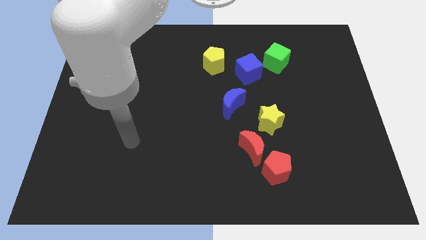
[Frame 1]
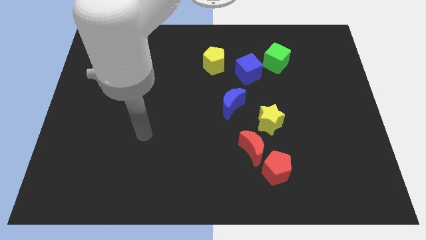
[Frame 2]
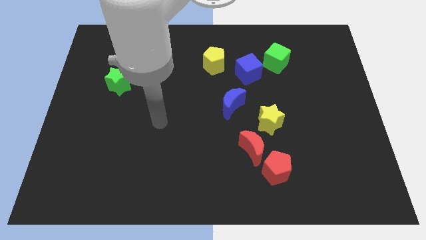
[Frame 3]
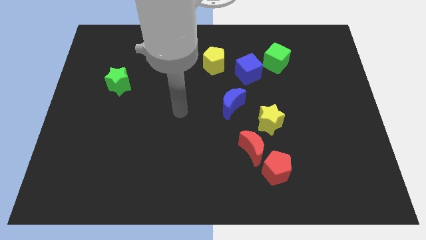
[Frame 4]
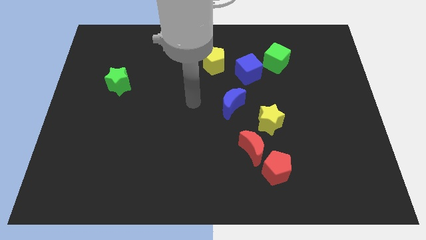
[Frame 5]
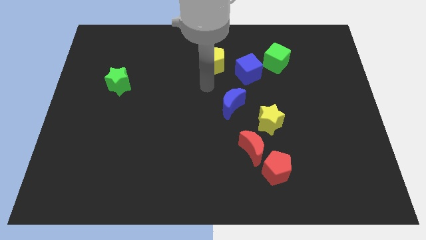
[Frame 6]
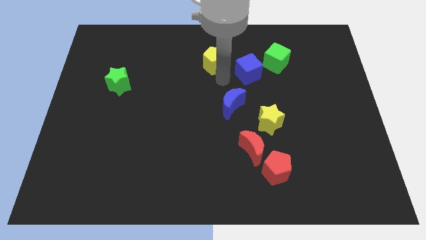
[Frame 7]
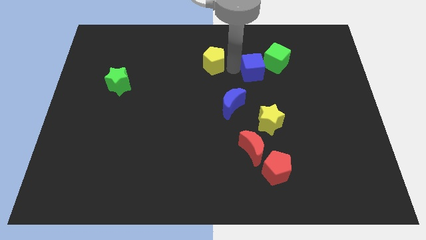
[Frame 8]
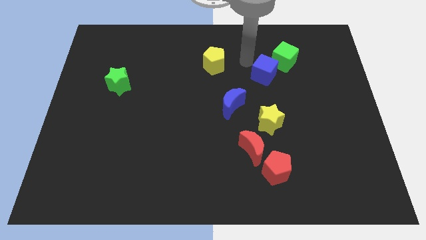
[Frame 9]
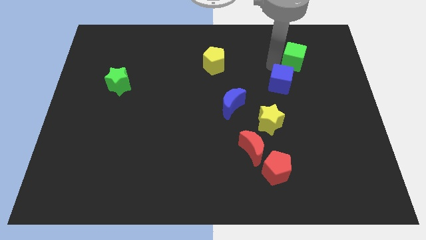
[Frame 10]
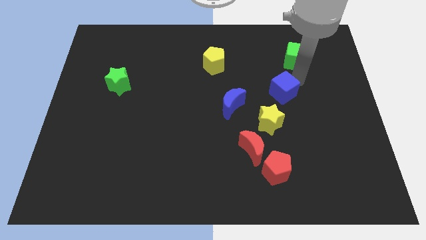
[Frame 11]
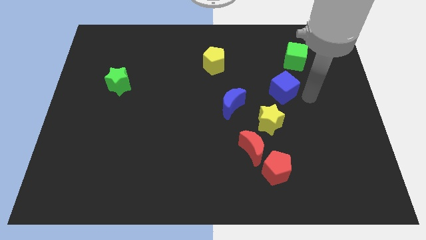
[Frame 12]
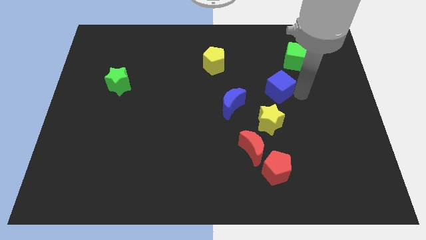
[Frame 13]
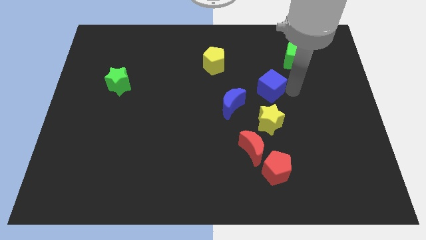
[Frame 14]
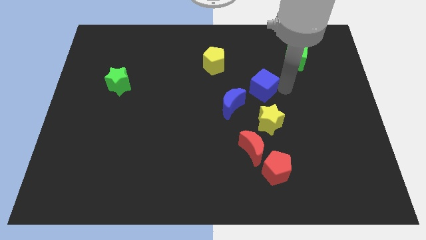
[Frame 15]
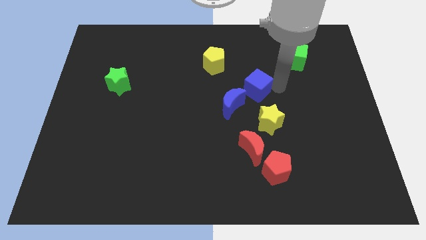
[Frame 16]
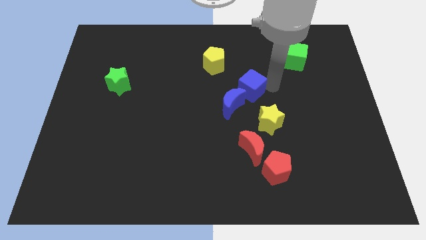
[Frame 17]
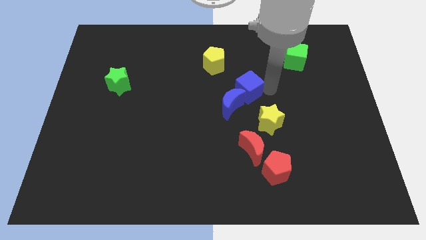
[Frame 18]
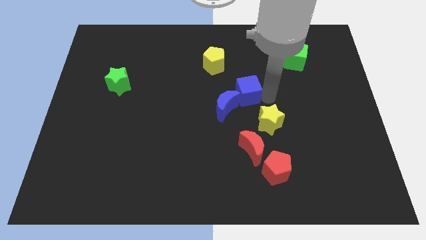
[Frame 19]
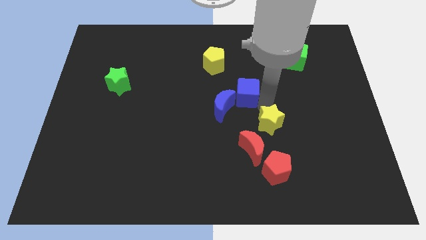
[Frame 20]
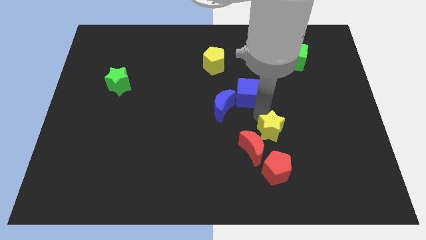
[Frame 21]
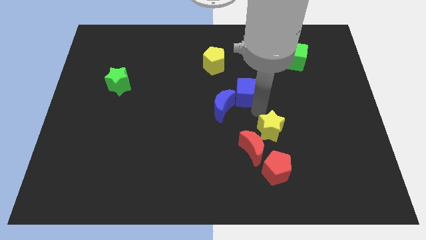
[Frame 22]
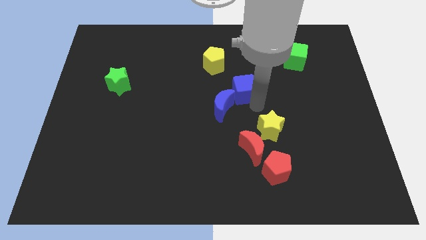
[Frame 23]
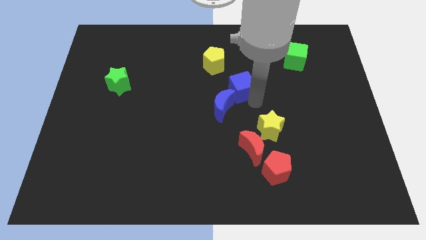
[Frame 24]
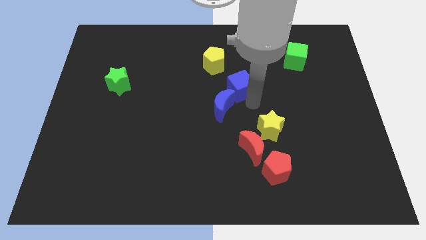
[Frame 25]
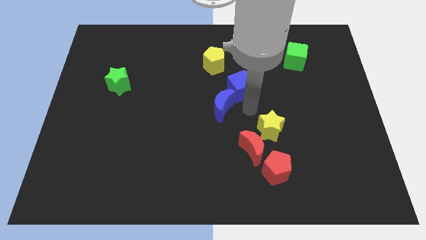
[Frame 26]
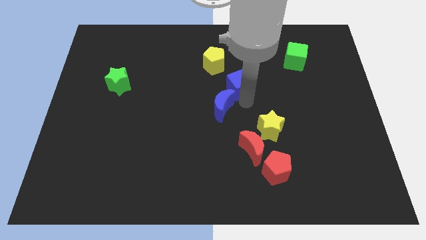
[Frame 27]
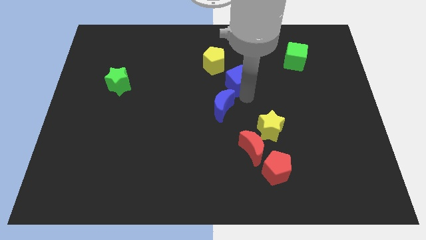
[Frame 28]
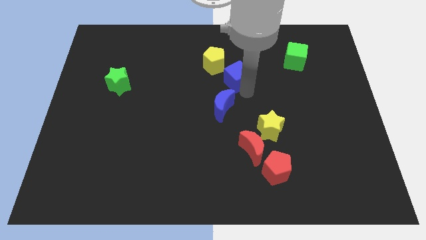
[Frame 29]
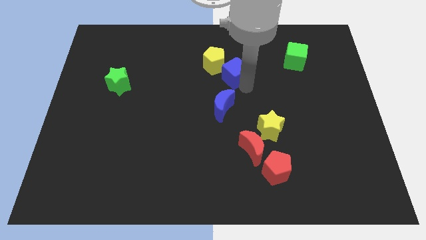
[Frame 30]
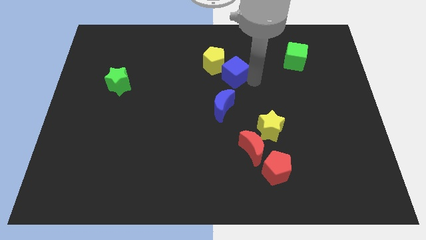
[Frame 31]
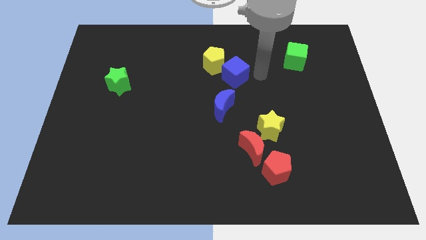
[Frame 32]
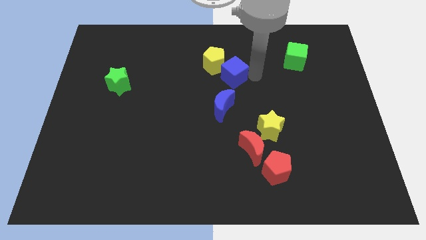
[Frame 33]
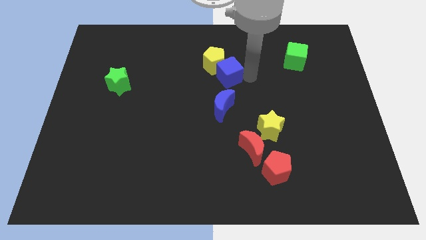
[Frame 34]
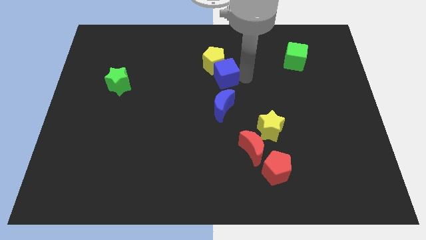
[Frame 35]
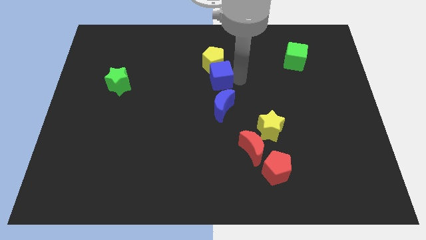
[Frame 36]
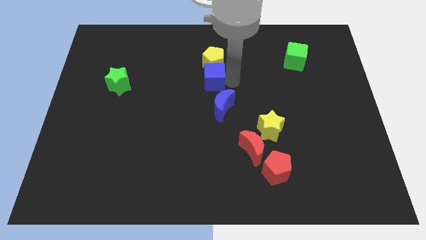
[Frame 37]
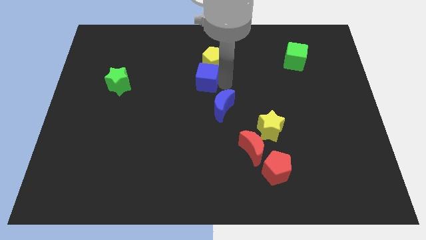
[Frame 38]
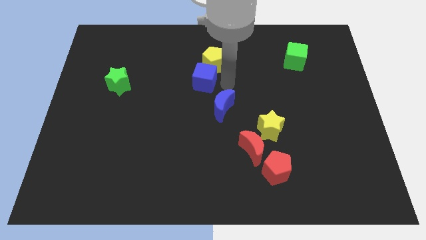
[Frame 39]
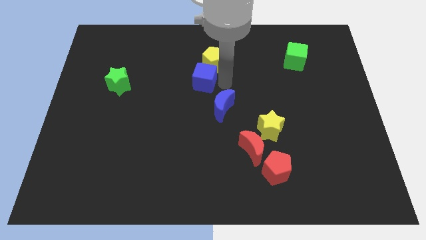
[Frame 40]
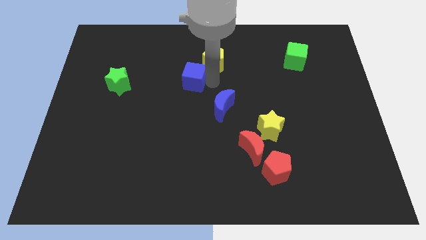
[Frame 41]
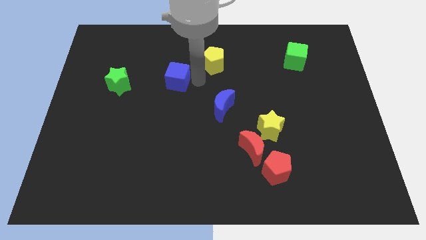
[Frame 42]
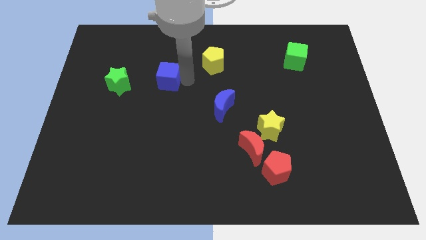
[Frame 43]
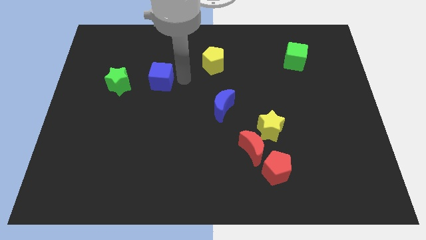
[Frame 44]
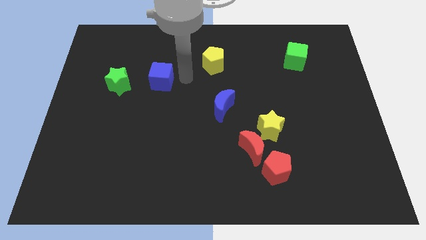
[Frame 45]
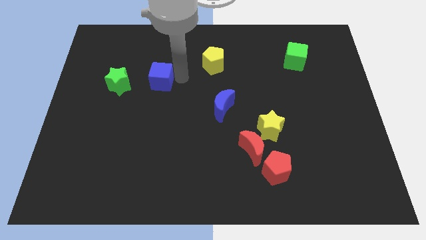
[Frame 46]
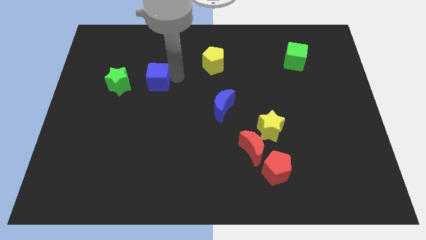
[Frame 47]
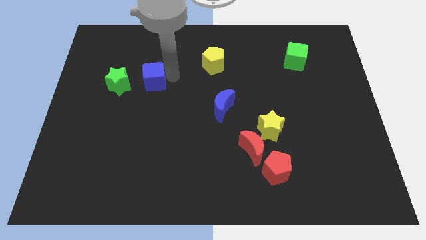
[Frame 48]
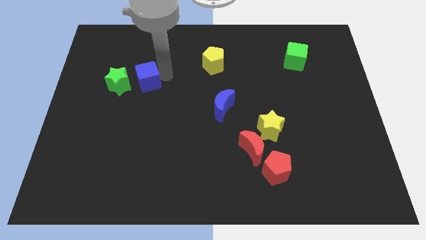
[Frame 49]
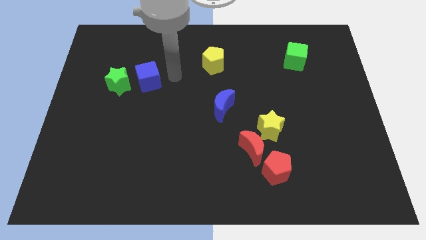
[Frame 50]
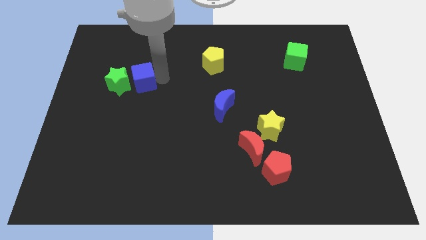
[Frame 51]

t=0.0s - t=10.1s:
move the blue cube to the green star

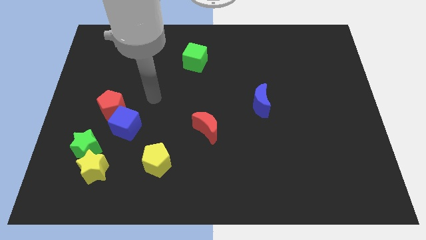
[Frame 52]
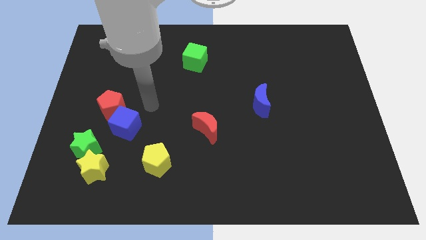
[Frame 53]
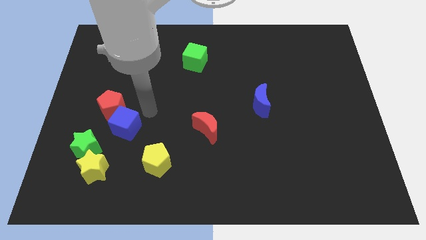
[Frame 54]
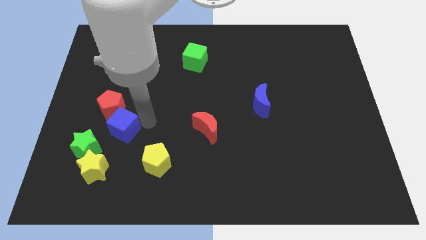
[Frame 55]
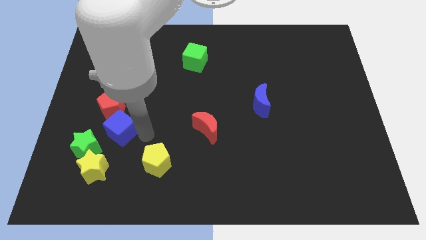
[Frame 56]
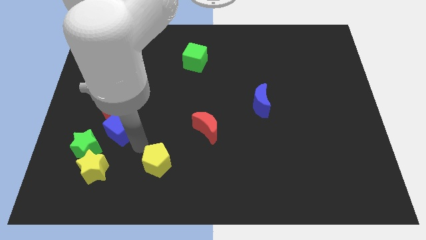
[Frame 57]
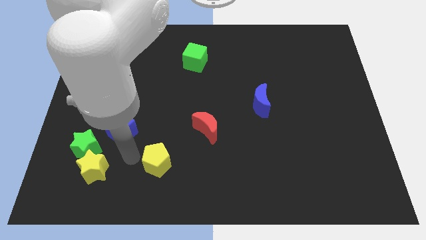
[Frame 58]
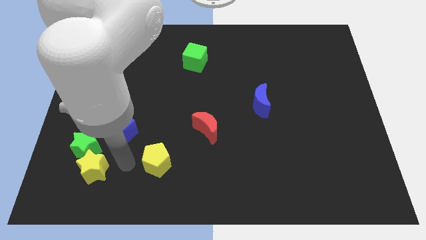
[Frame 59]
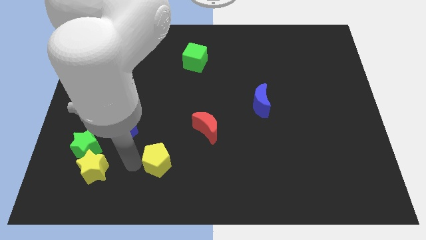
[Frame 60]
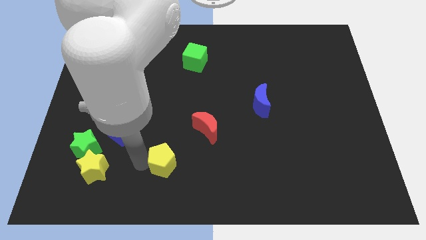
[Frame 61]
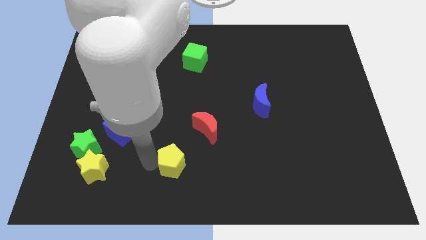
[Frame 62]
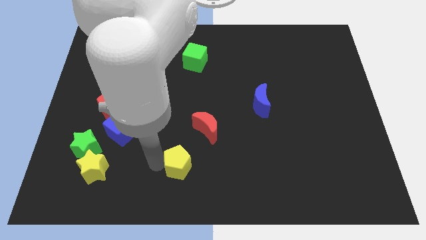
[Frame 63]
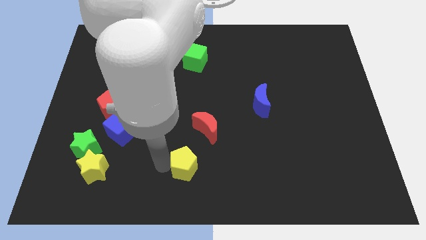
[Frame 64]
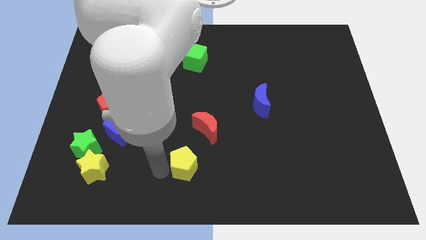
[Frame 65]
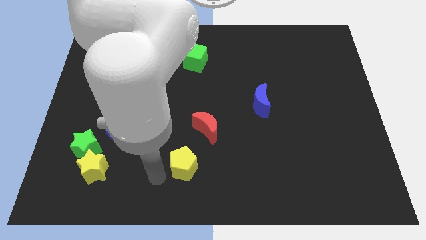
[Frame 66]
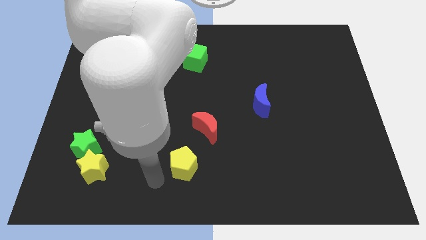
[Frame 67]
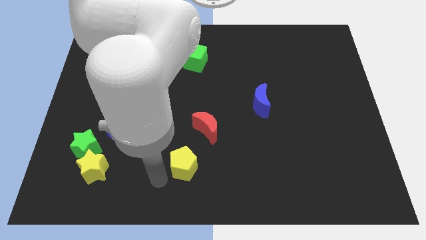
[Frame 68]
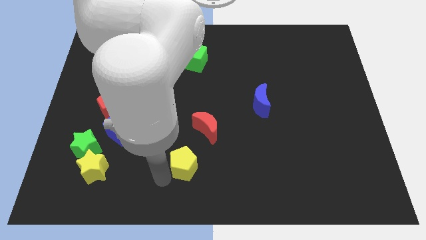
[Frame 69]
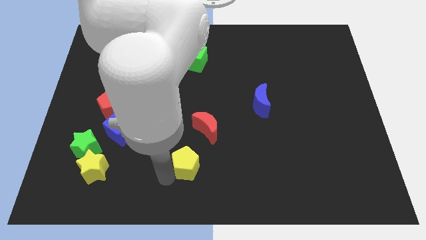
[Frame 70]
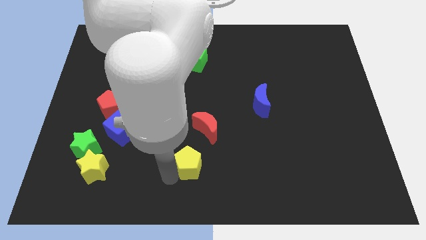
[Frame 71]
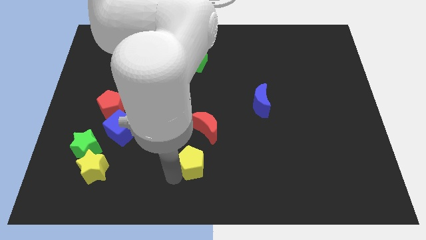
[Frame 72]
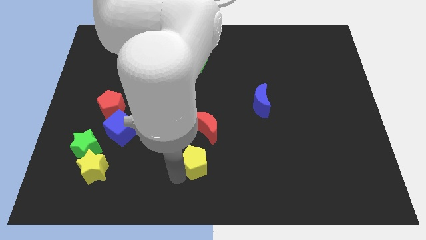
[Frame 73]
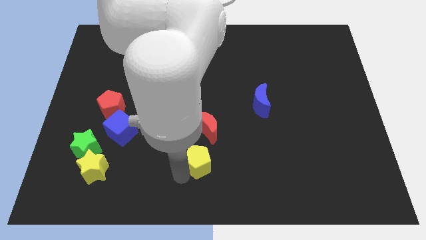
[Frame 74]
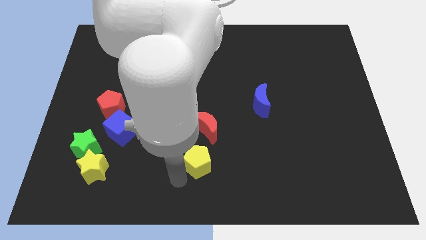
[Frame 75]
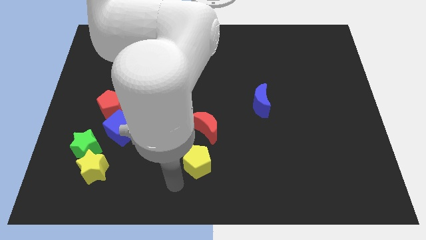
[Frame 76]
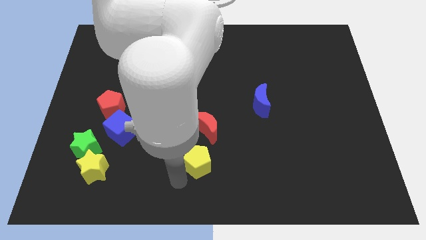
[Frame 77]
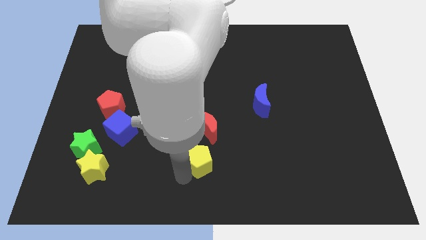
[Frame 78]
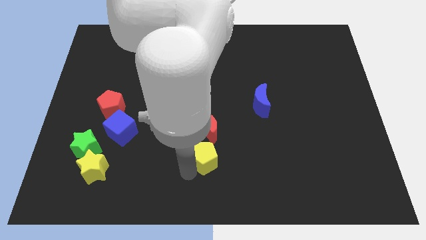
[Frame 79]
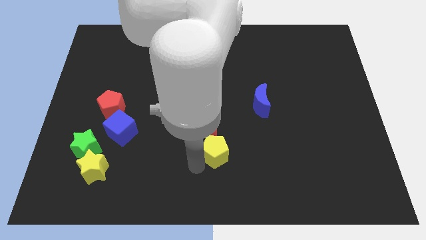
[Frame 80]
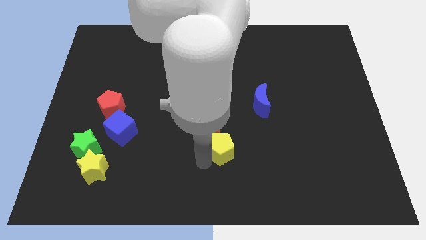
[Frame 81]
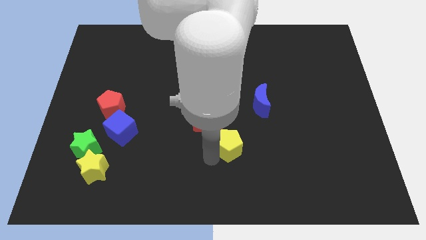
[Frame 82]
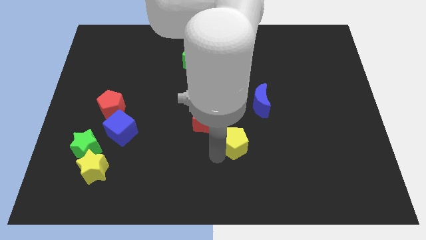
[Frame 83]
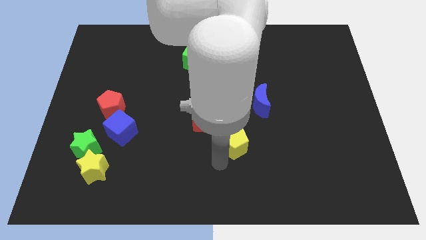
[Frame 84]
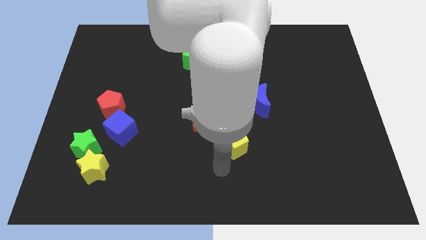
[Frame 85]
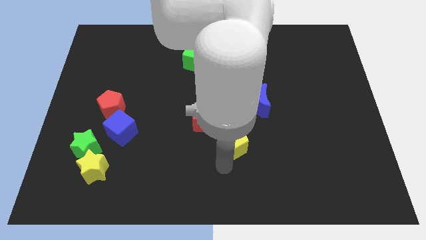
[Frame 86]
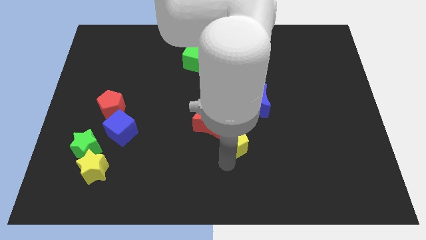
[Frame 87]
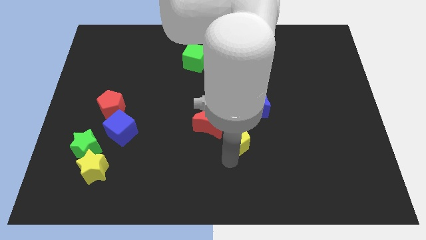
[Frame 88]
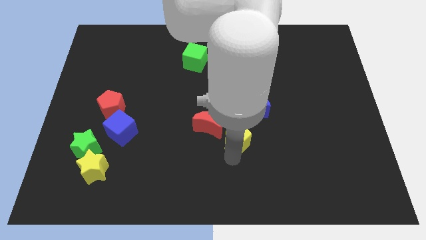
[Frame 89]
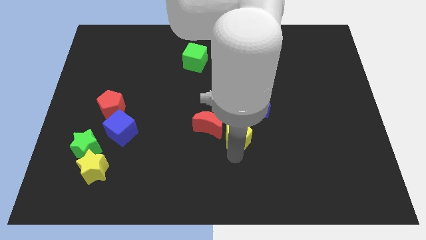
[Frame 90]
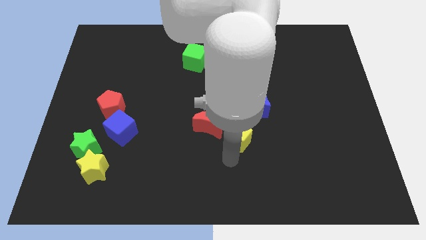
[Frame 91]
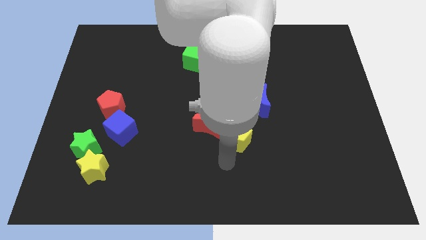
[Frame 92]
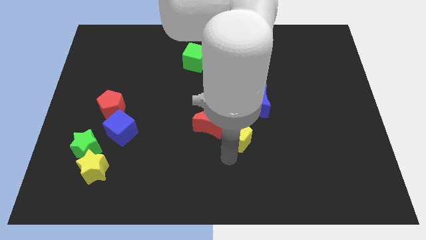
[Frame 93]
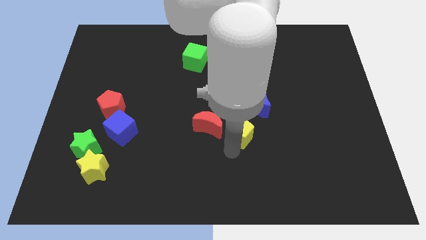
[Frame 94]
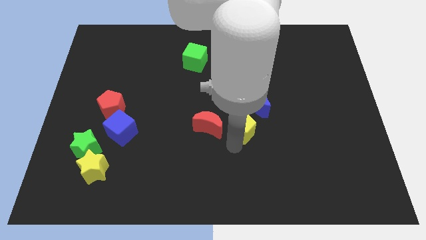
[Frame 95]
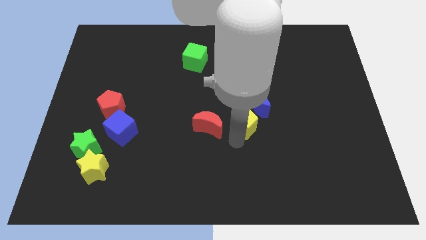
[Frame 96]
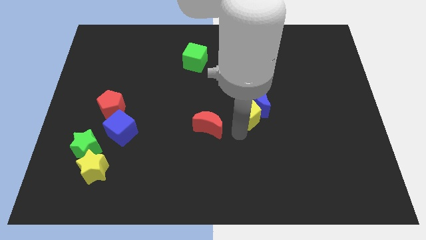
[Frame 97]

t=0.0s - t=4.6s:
push the yellow pentagon towards the blue moon
